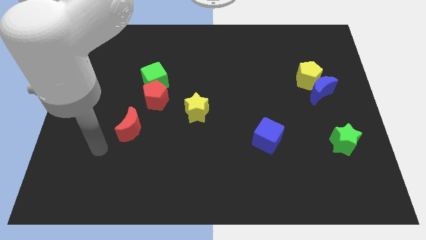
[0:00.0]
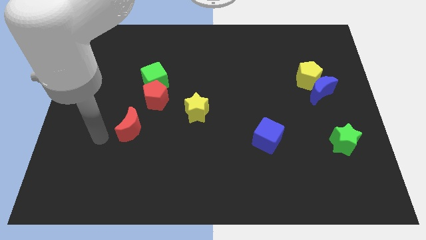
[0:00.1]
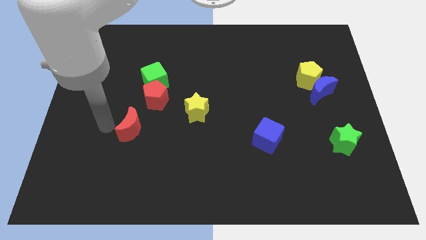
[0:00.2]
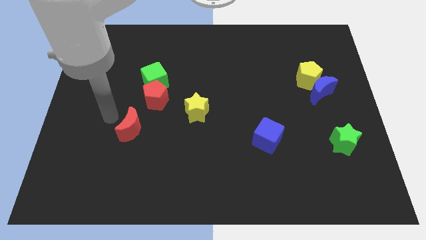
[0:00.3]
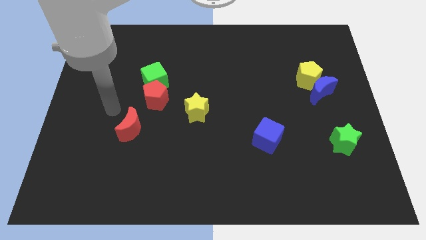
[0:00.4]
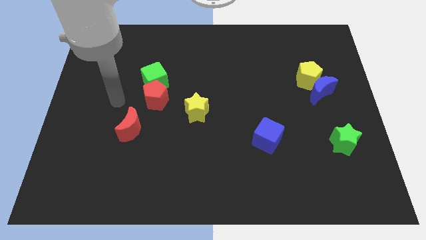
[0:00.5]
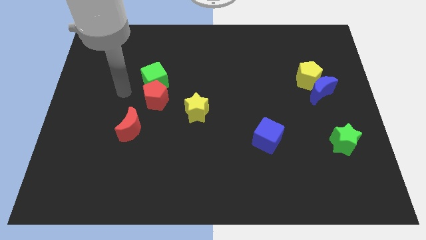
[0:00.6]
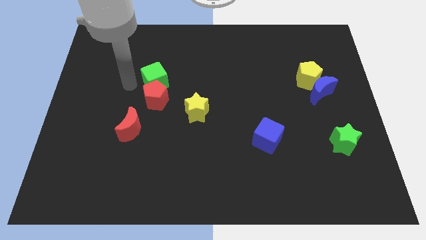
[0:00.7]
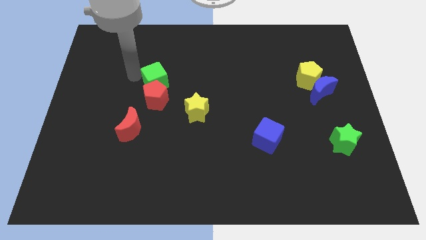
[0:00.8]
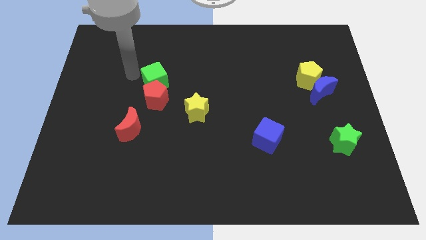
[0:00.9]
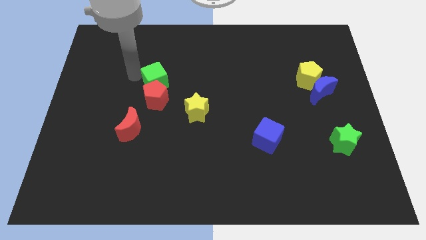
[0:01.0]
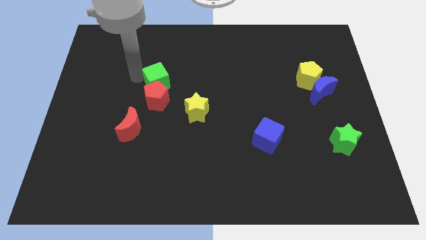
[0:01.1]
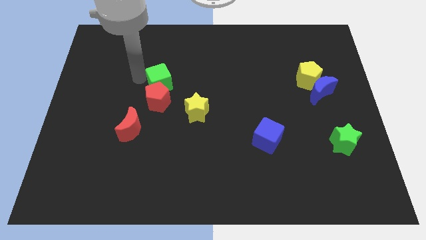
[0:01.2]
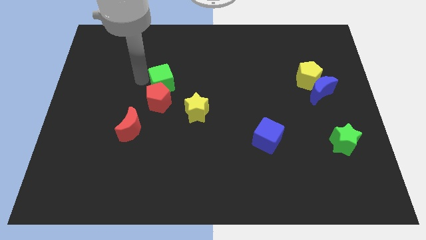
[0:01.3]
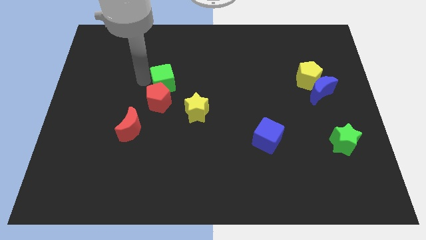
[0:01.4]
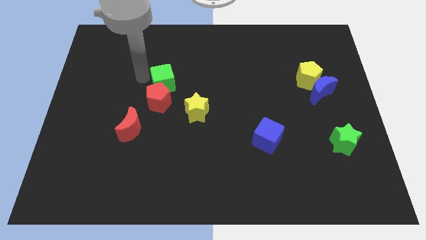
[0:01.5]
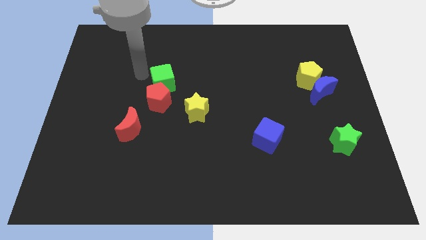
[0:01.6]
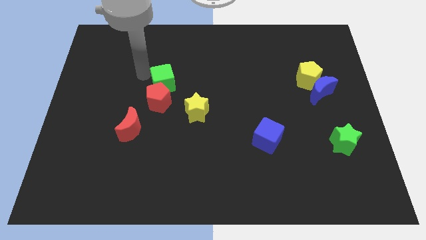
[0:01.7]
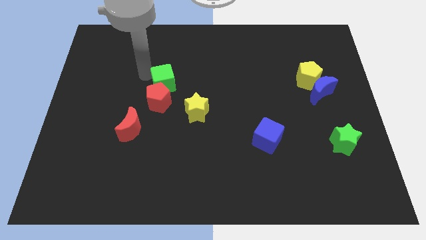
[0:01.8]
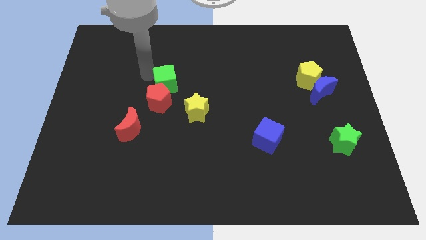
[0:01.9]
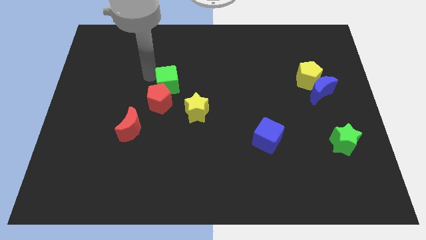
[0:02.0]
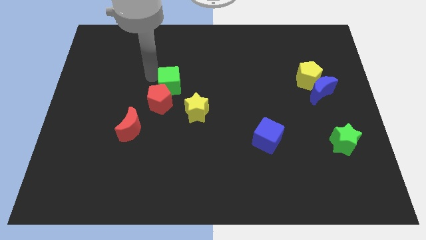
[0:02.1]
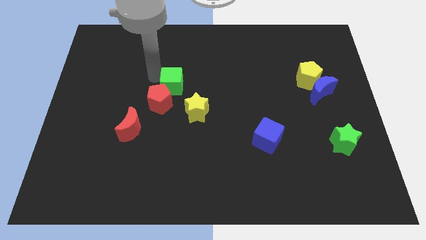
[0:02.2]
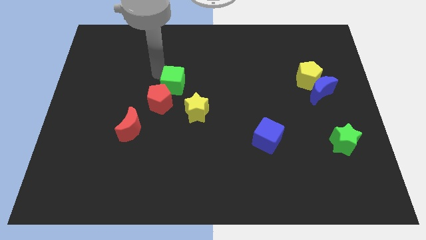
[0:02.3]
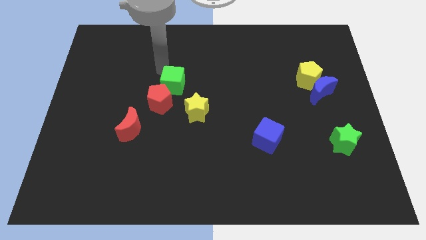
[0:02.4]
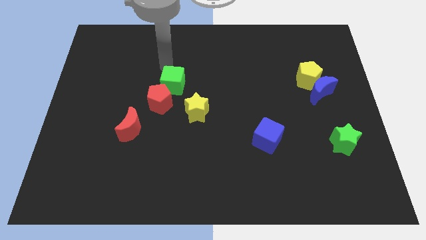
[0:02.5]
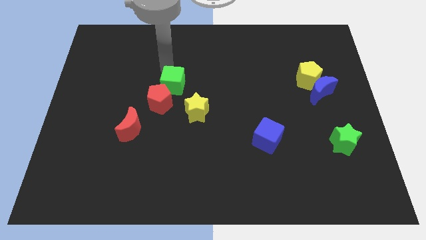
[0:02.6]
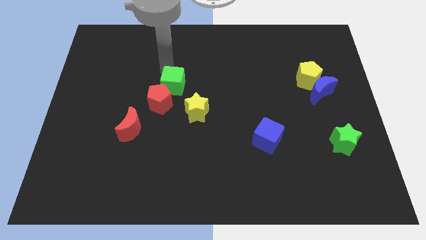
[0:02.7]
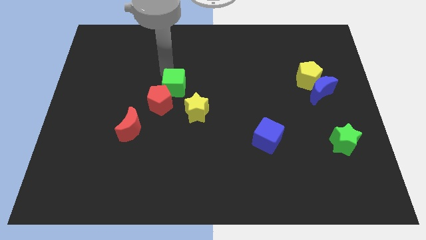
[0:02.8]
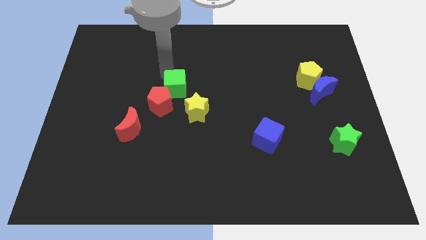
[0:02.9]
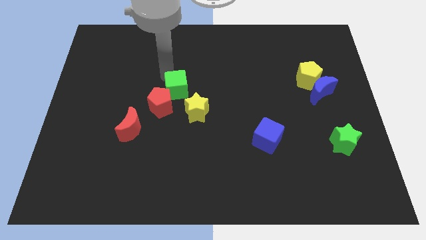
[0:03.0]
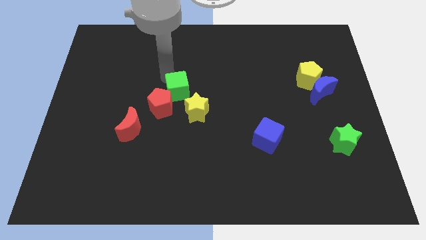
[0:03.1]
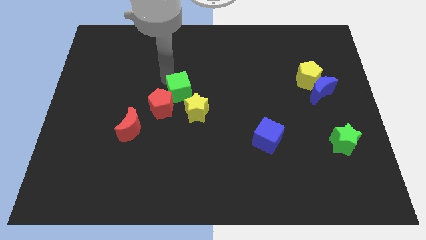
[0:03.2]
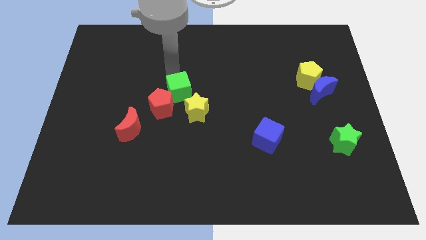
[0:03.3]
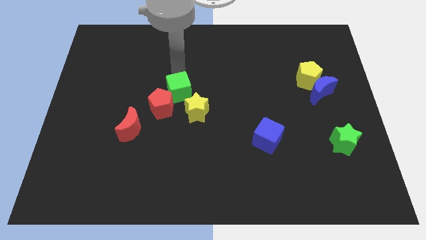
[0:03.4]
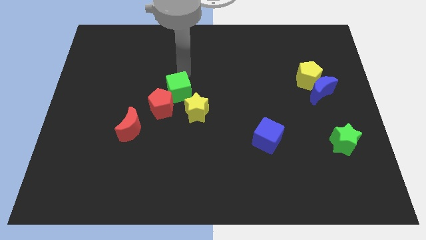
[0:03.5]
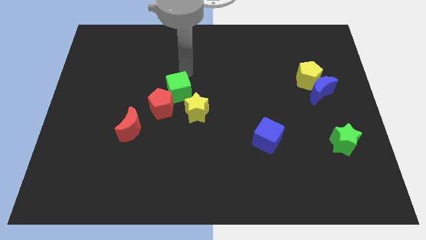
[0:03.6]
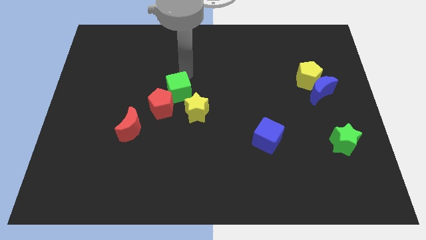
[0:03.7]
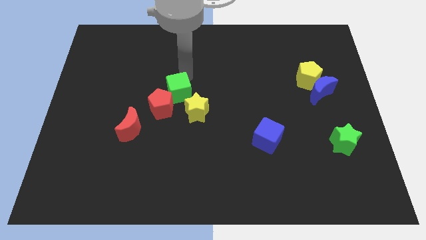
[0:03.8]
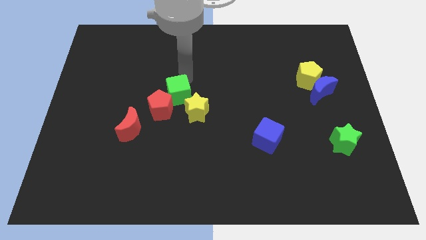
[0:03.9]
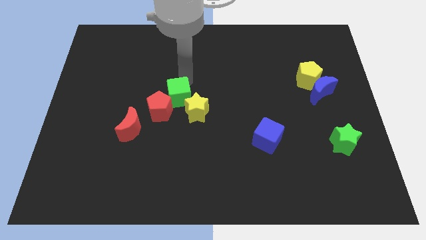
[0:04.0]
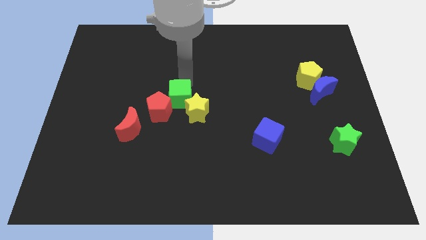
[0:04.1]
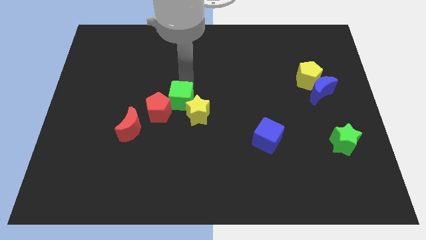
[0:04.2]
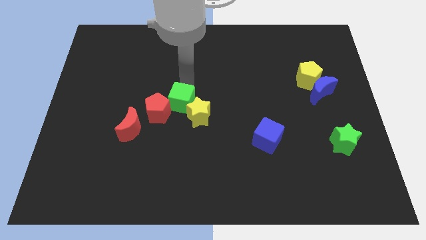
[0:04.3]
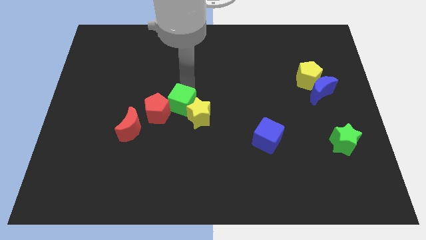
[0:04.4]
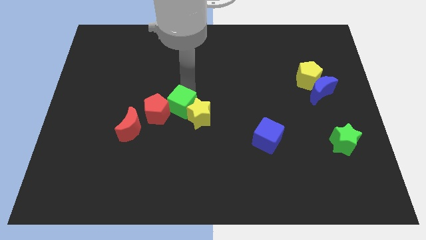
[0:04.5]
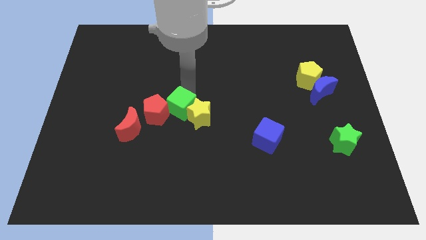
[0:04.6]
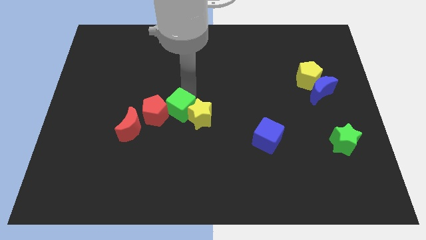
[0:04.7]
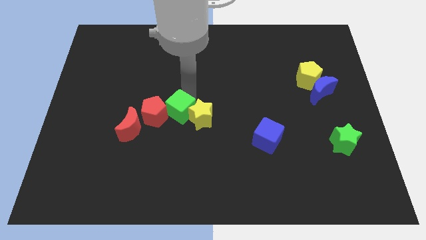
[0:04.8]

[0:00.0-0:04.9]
slide the green cube down somewhat

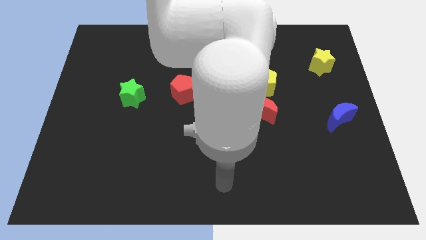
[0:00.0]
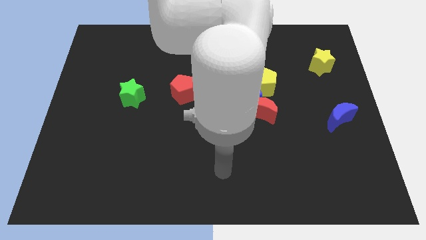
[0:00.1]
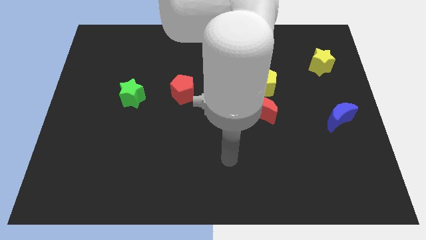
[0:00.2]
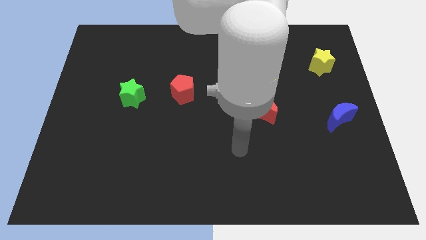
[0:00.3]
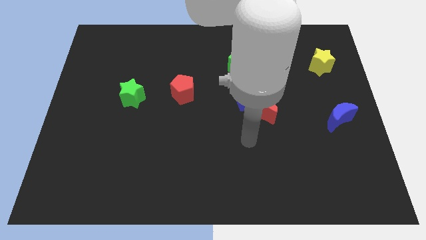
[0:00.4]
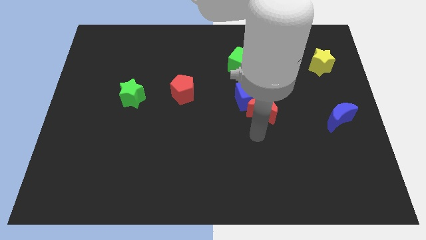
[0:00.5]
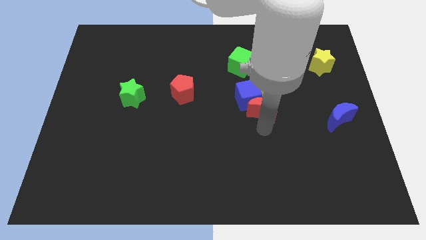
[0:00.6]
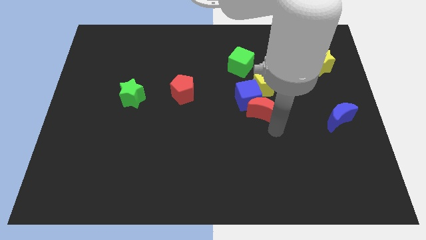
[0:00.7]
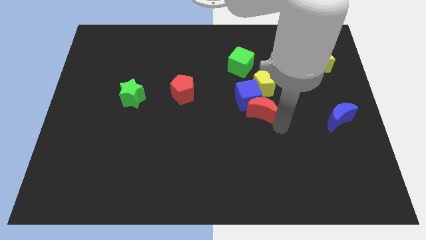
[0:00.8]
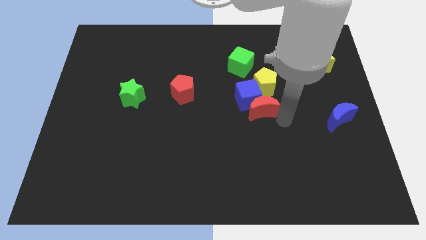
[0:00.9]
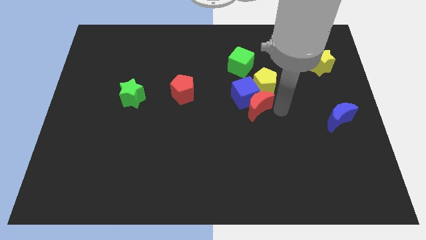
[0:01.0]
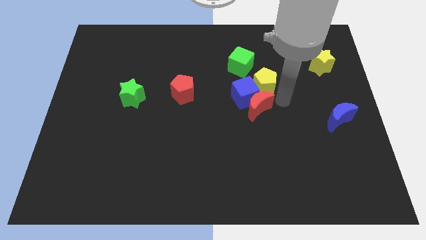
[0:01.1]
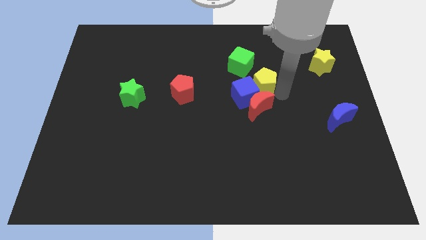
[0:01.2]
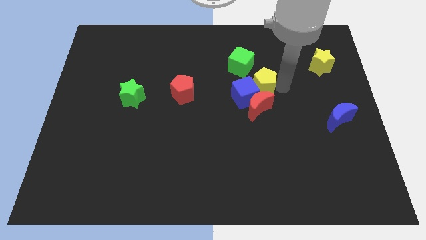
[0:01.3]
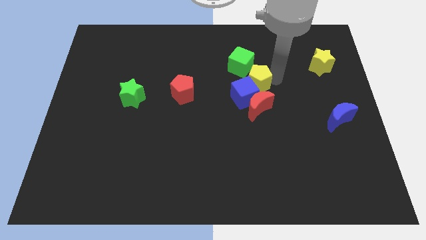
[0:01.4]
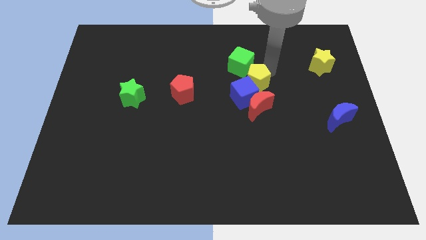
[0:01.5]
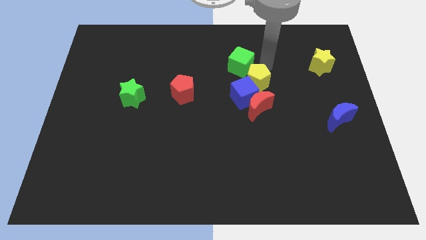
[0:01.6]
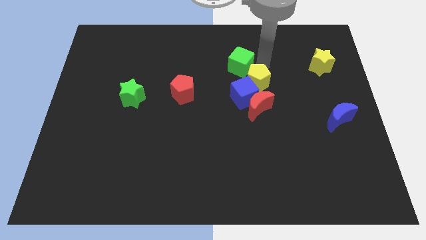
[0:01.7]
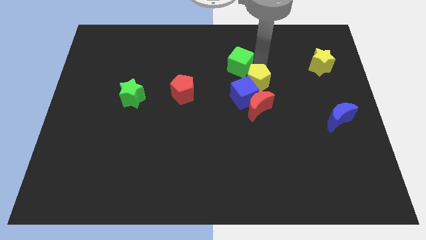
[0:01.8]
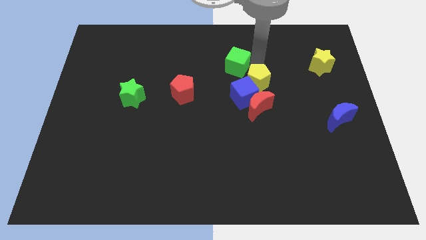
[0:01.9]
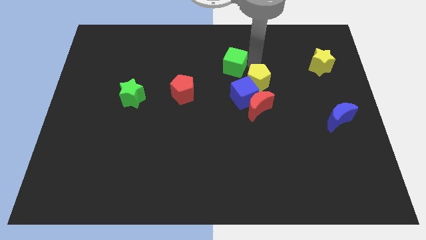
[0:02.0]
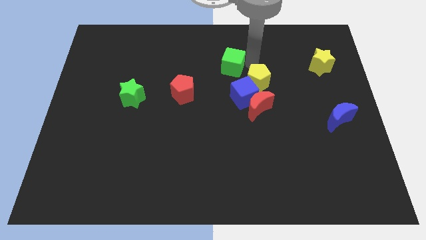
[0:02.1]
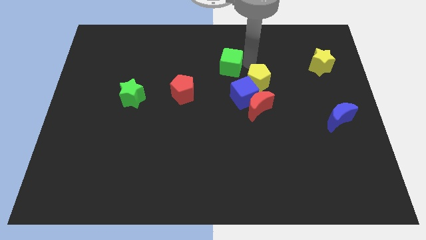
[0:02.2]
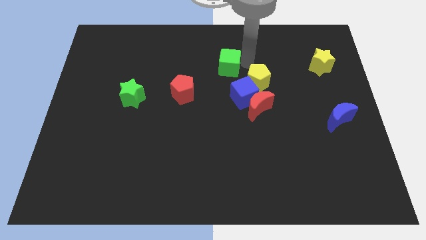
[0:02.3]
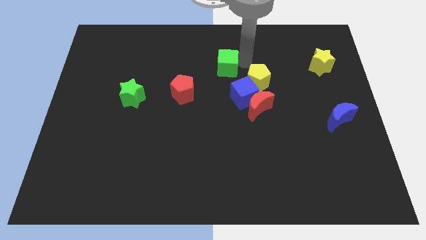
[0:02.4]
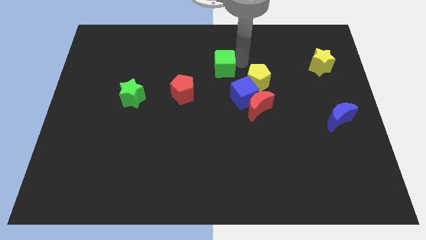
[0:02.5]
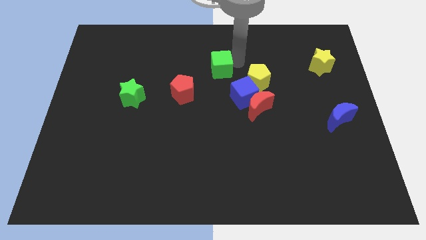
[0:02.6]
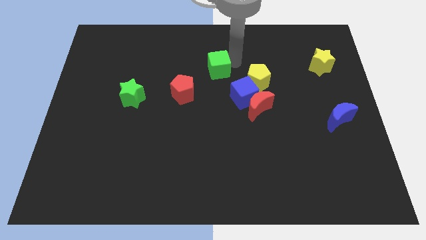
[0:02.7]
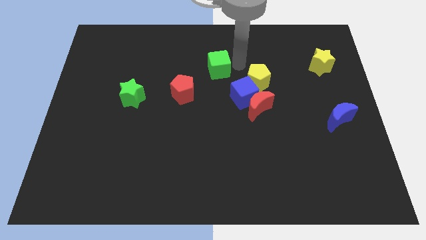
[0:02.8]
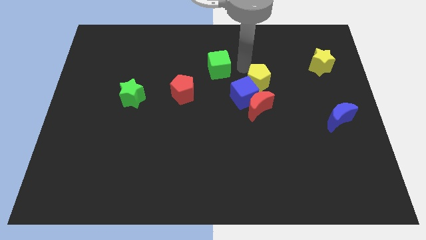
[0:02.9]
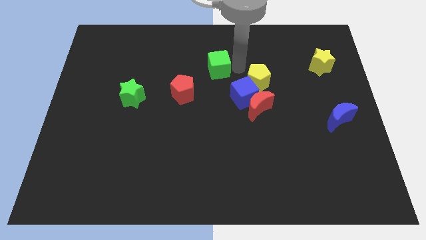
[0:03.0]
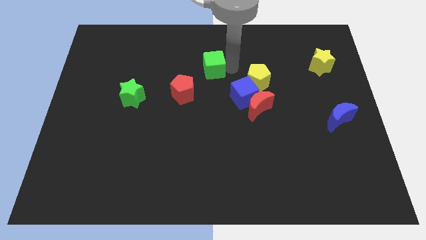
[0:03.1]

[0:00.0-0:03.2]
slide the green cube a little to the left

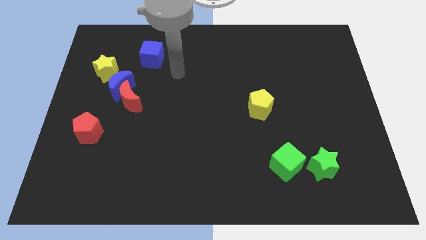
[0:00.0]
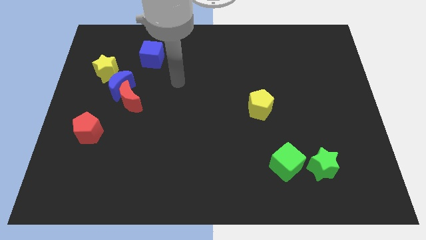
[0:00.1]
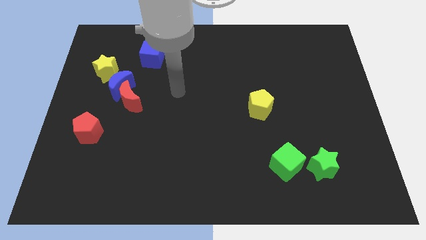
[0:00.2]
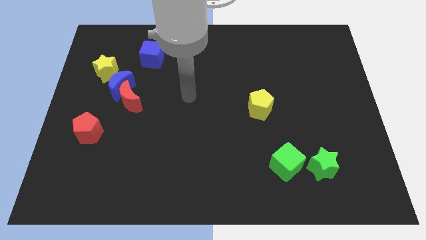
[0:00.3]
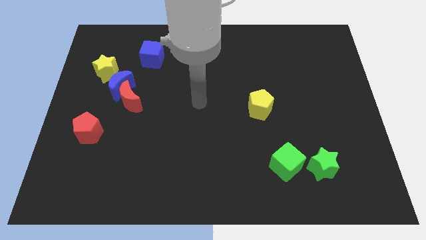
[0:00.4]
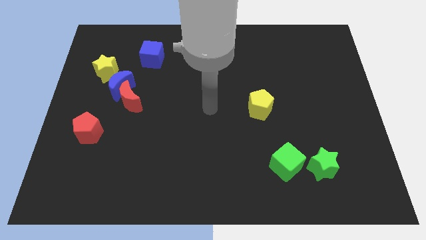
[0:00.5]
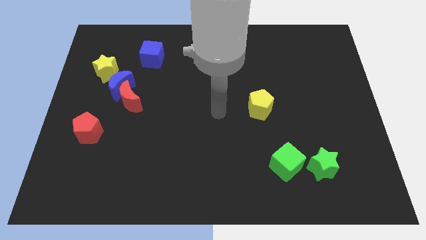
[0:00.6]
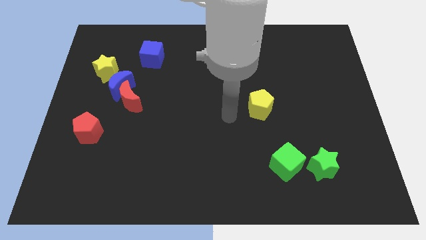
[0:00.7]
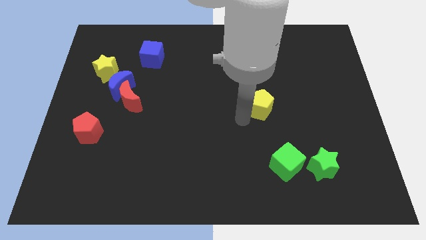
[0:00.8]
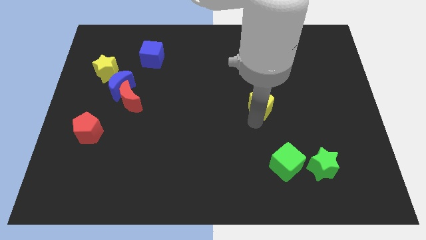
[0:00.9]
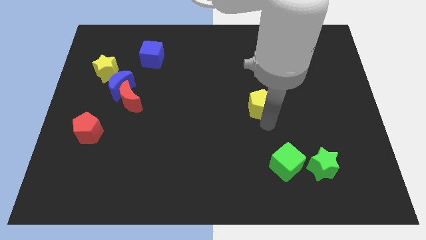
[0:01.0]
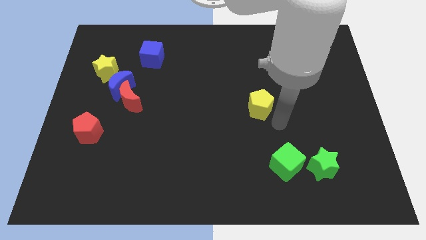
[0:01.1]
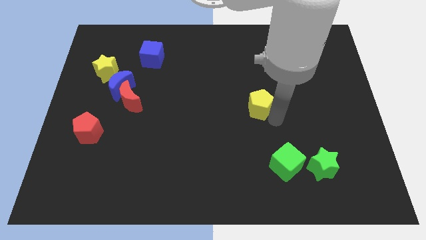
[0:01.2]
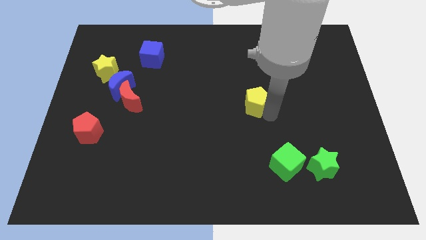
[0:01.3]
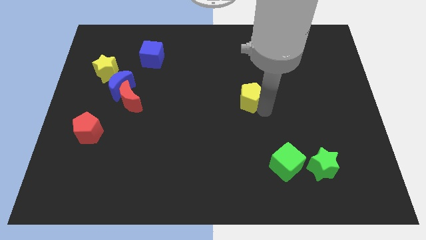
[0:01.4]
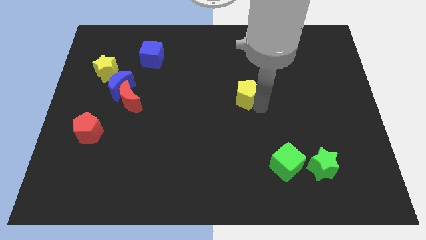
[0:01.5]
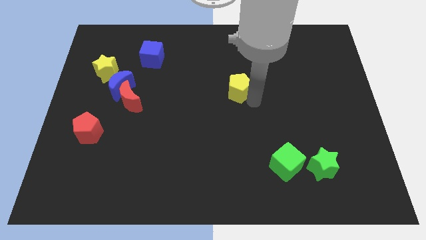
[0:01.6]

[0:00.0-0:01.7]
slide the yellow pentagon upwards and to the left a bit
